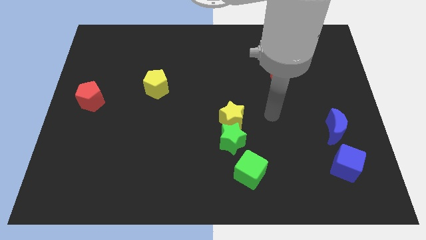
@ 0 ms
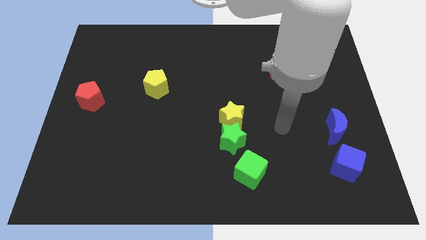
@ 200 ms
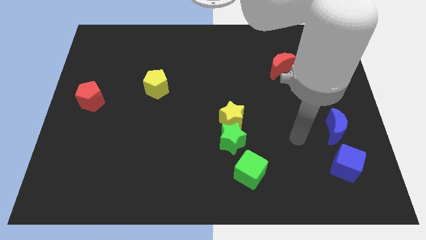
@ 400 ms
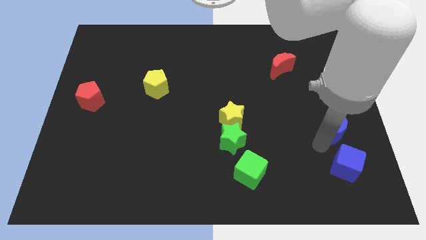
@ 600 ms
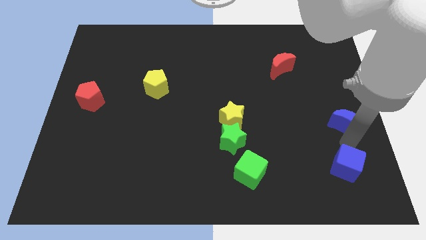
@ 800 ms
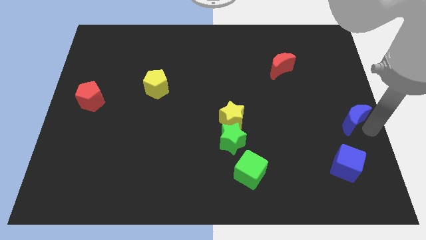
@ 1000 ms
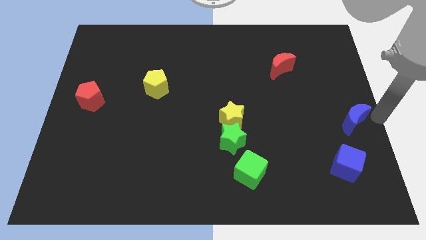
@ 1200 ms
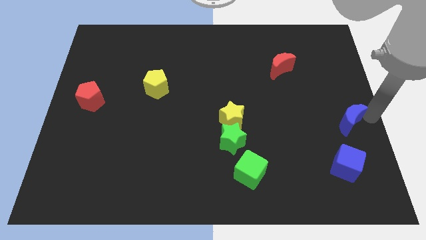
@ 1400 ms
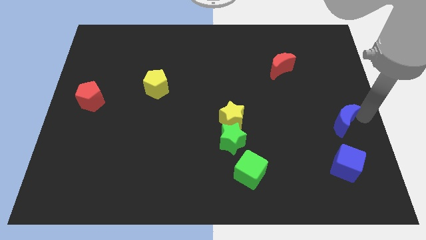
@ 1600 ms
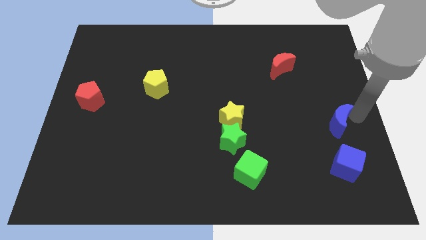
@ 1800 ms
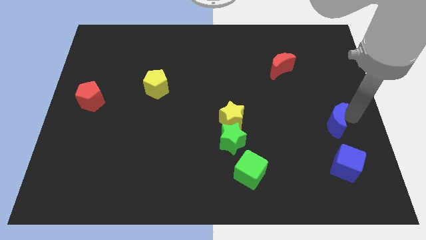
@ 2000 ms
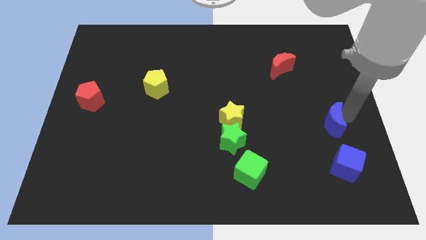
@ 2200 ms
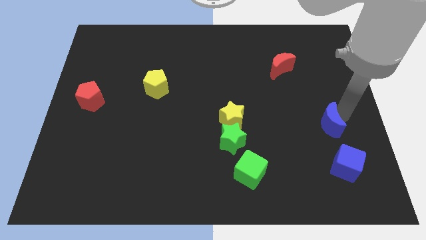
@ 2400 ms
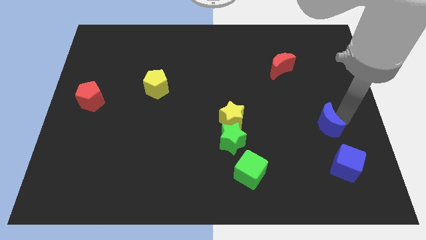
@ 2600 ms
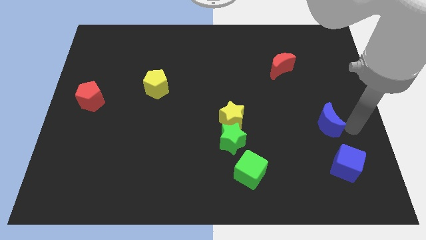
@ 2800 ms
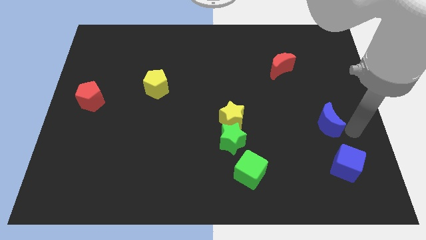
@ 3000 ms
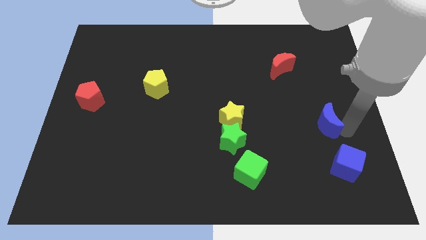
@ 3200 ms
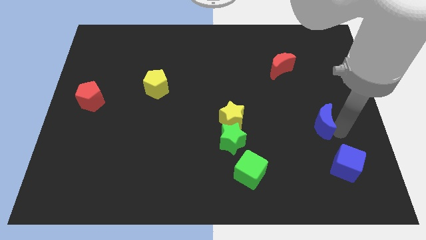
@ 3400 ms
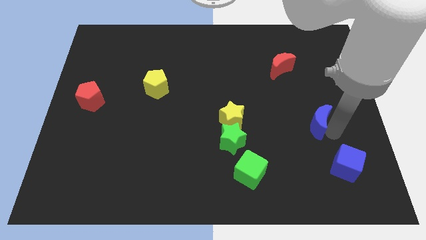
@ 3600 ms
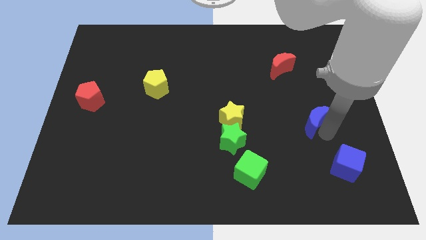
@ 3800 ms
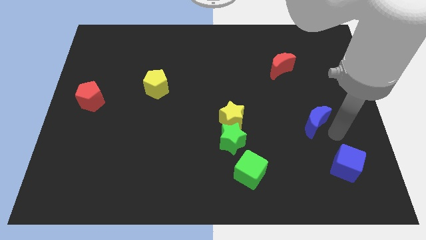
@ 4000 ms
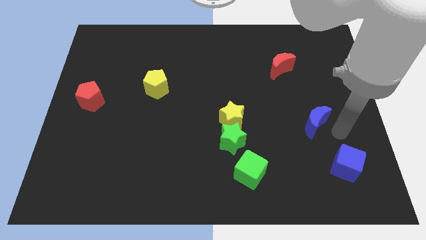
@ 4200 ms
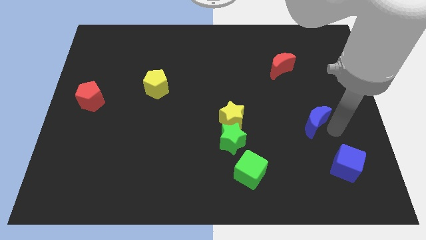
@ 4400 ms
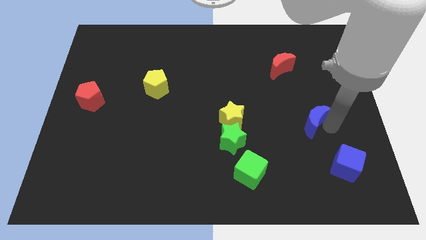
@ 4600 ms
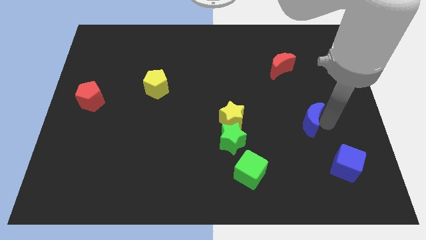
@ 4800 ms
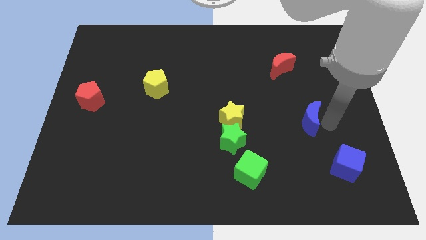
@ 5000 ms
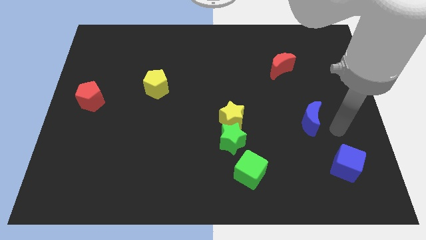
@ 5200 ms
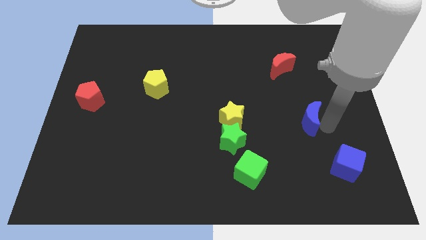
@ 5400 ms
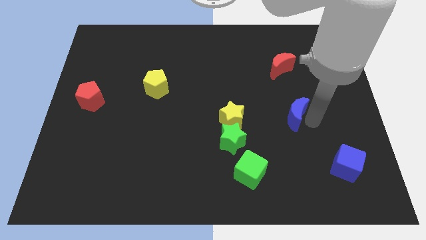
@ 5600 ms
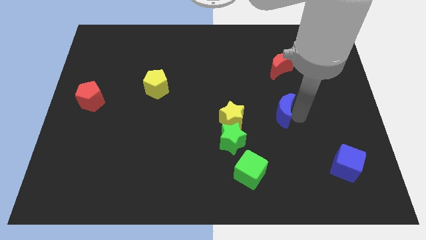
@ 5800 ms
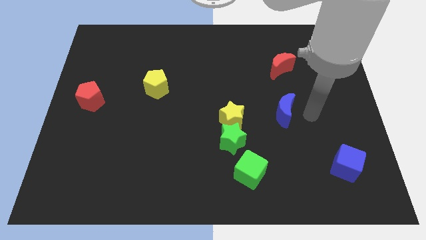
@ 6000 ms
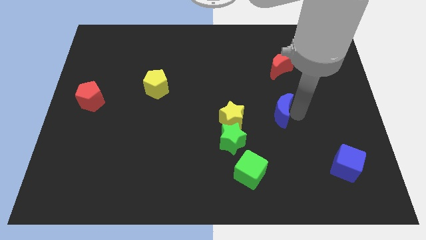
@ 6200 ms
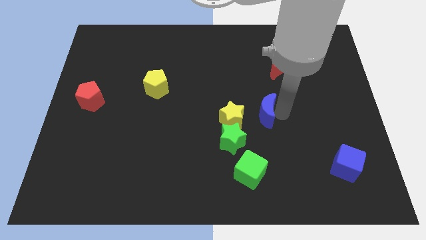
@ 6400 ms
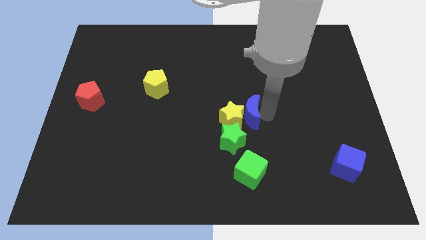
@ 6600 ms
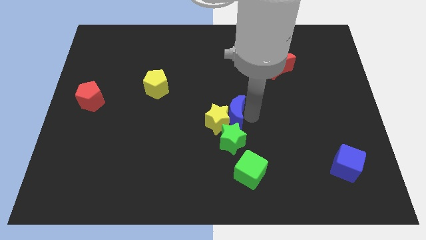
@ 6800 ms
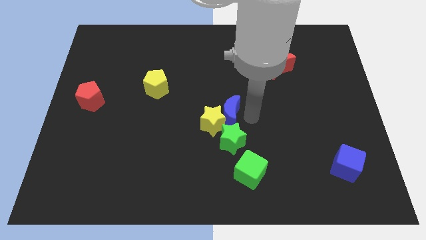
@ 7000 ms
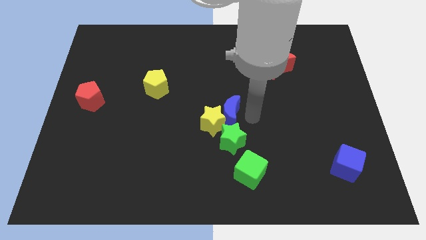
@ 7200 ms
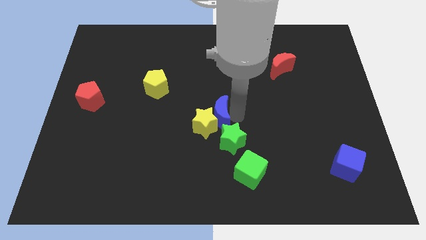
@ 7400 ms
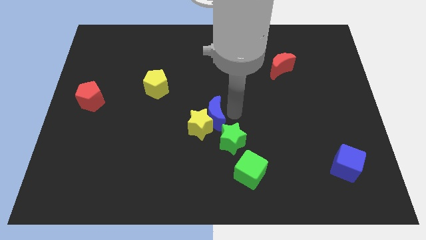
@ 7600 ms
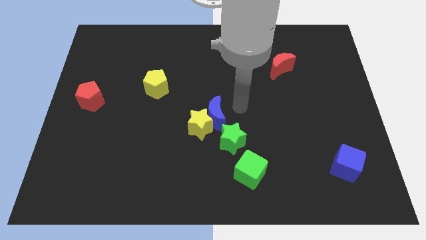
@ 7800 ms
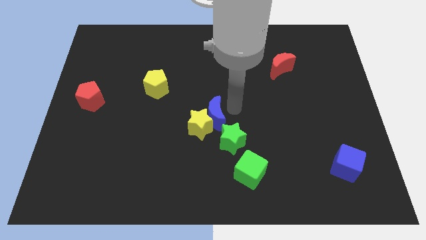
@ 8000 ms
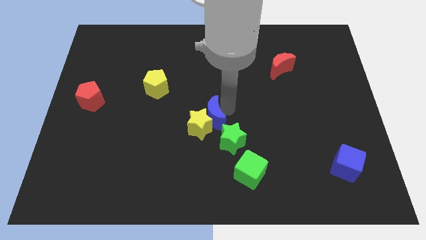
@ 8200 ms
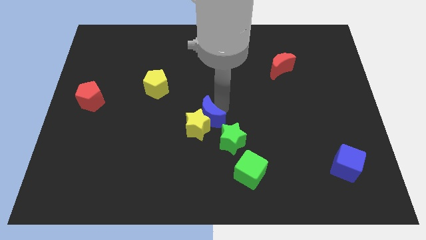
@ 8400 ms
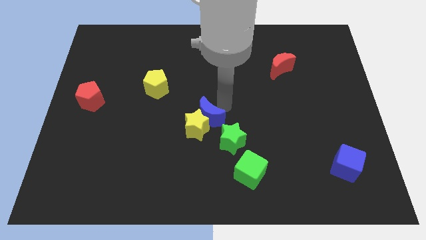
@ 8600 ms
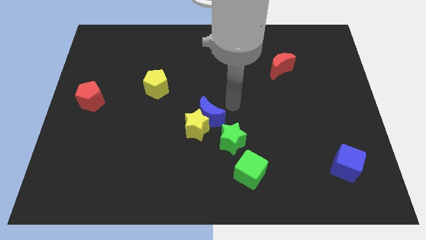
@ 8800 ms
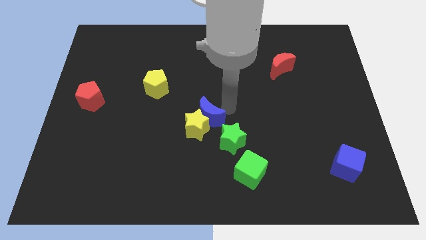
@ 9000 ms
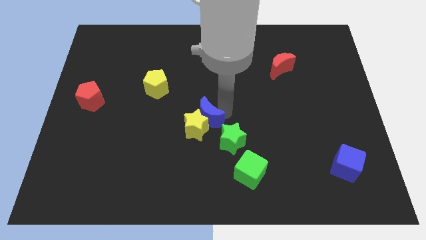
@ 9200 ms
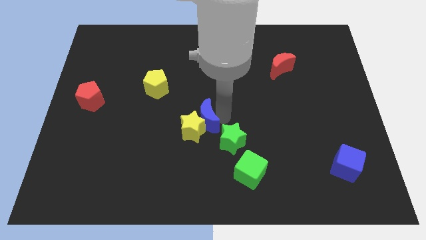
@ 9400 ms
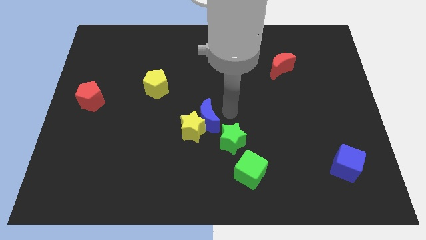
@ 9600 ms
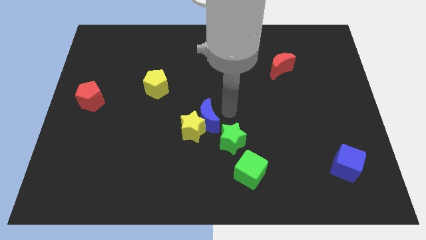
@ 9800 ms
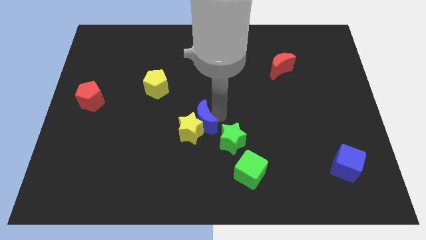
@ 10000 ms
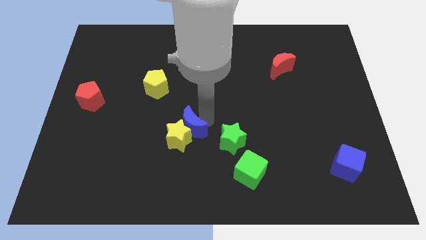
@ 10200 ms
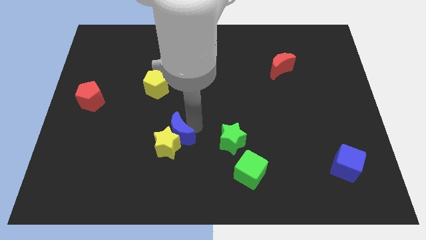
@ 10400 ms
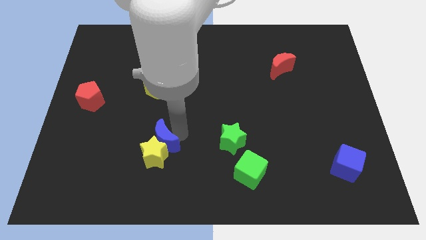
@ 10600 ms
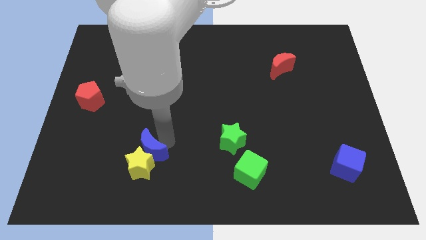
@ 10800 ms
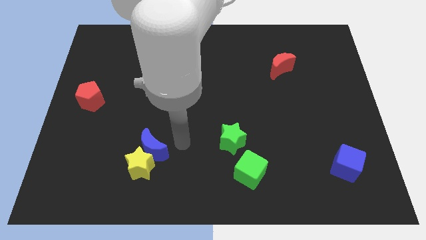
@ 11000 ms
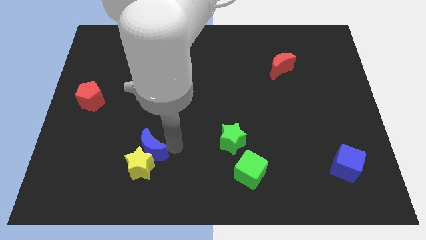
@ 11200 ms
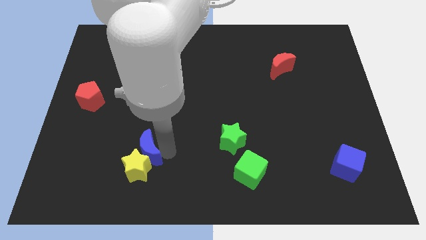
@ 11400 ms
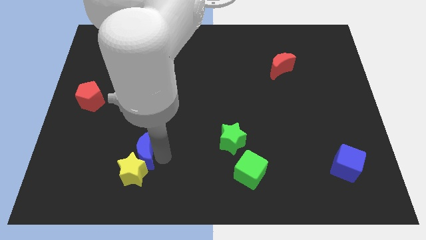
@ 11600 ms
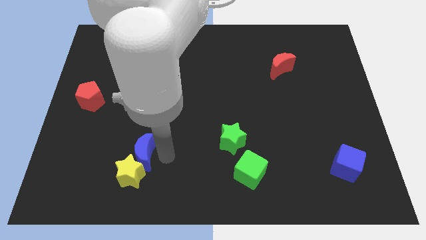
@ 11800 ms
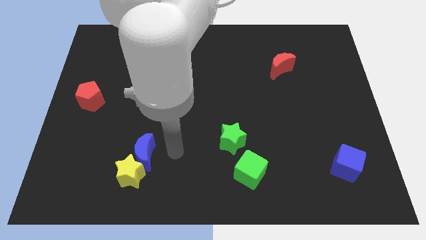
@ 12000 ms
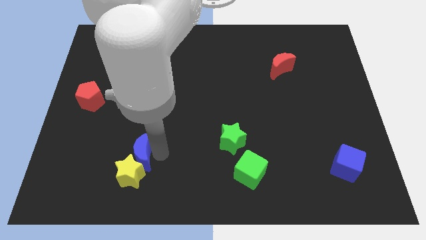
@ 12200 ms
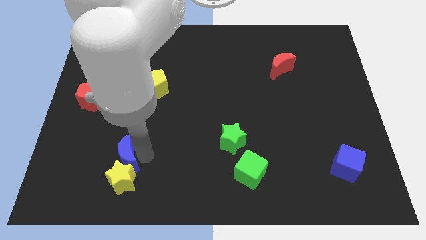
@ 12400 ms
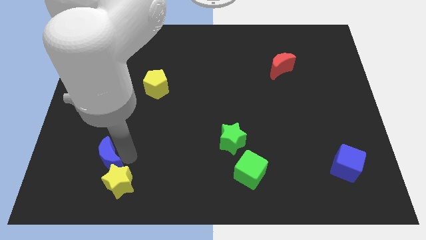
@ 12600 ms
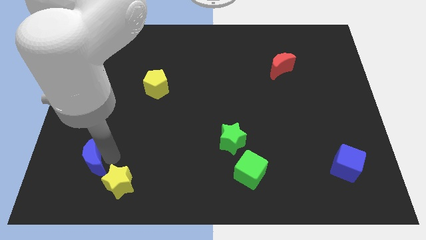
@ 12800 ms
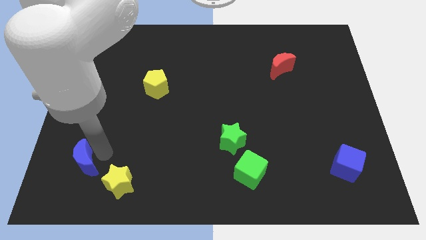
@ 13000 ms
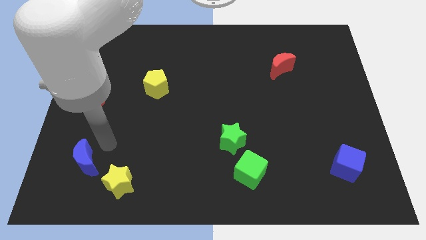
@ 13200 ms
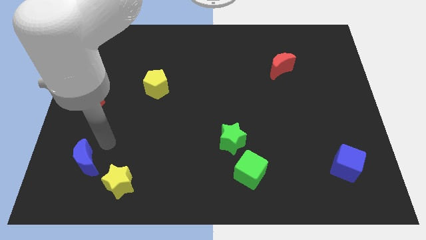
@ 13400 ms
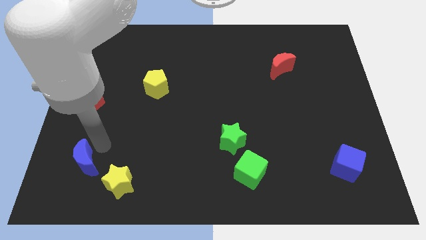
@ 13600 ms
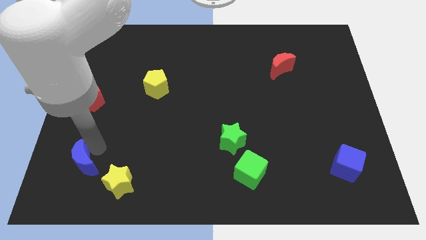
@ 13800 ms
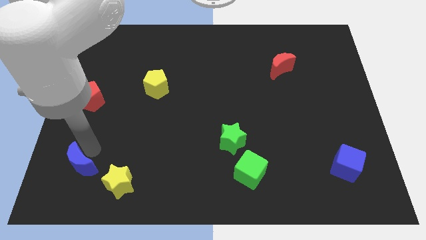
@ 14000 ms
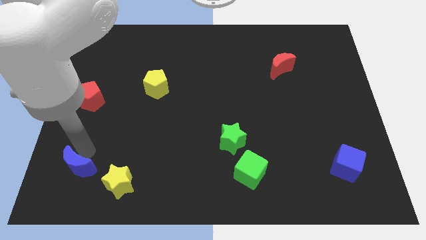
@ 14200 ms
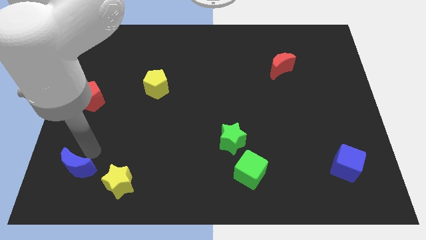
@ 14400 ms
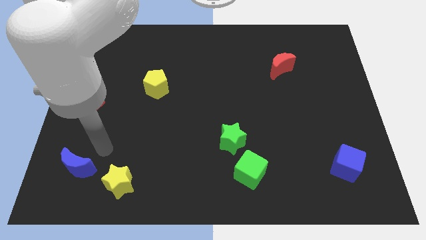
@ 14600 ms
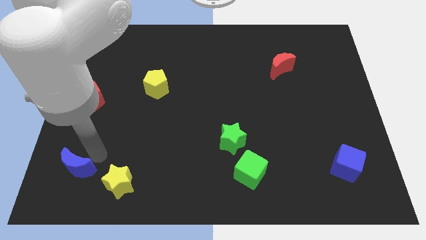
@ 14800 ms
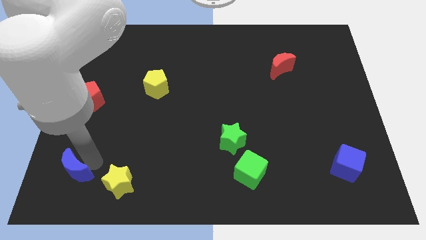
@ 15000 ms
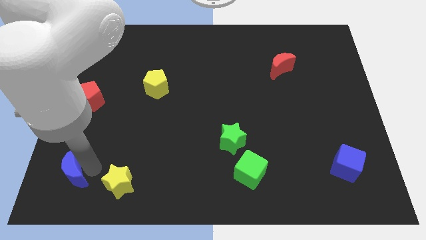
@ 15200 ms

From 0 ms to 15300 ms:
slide the blue moon to the bottom left corner
